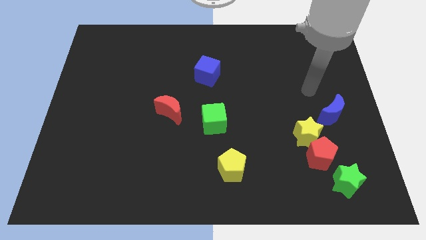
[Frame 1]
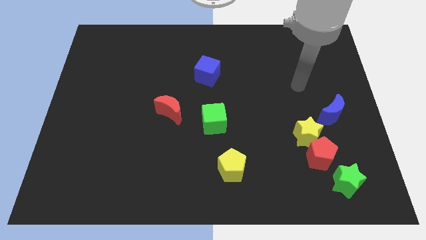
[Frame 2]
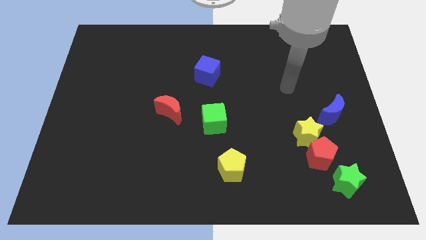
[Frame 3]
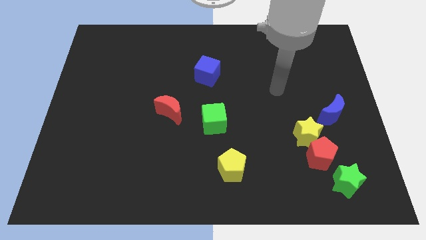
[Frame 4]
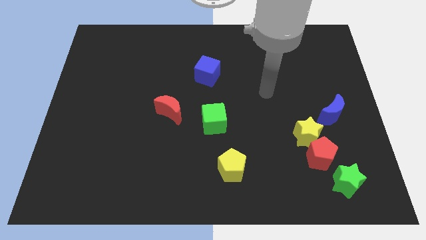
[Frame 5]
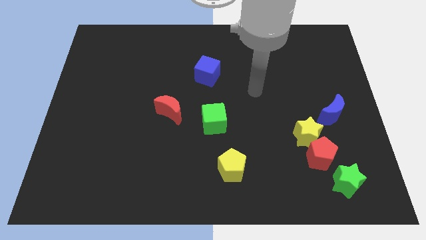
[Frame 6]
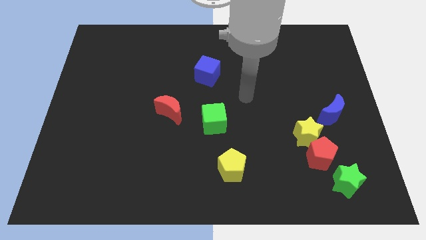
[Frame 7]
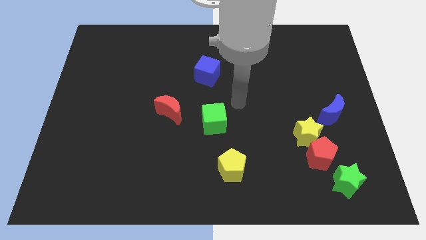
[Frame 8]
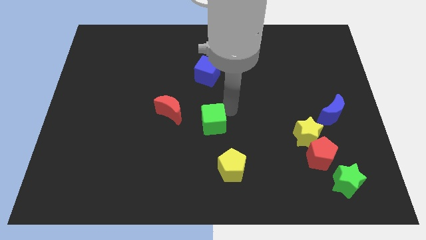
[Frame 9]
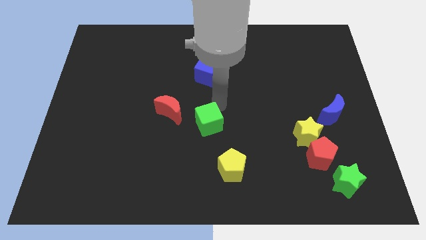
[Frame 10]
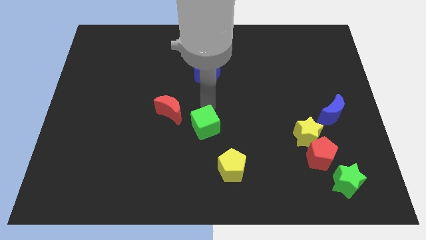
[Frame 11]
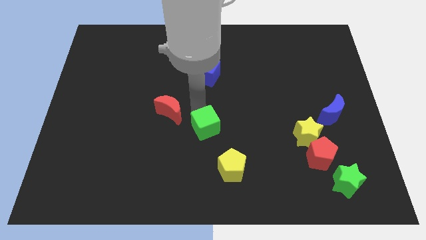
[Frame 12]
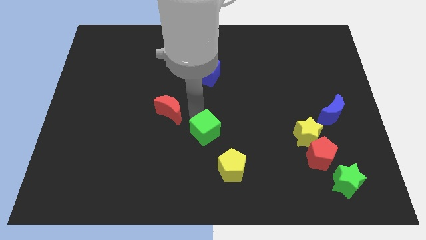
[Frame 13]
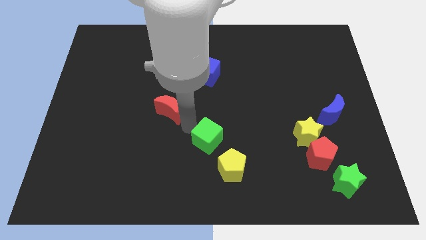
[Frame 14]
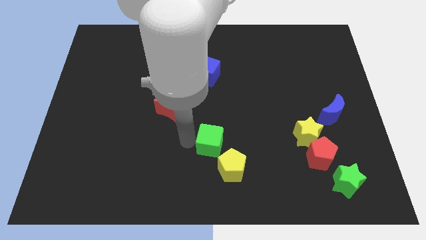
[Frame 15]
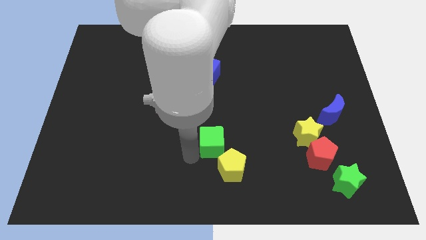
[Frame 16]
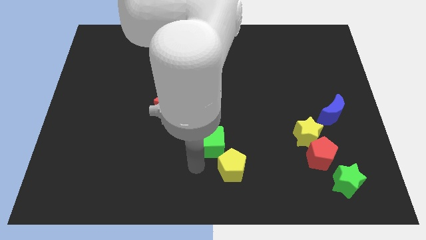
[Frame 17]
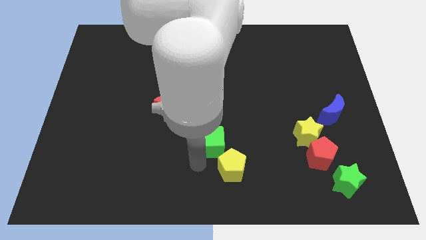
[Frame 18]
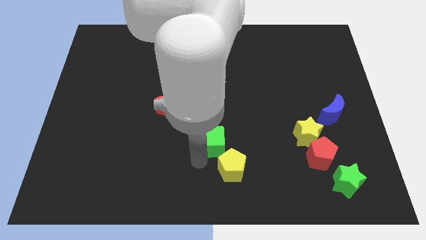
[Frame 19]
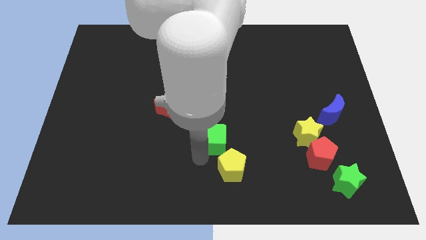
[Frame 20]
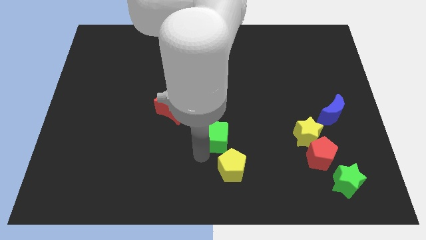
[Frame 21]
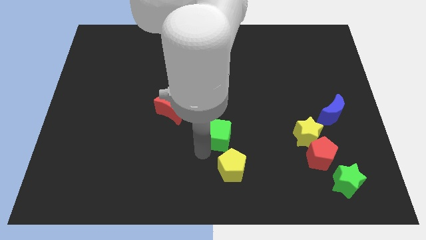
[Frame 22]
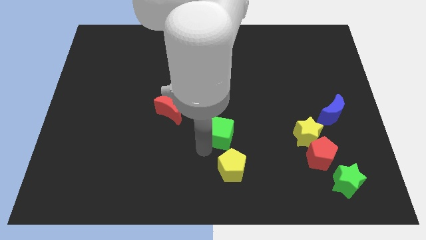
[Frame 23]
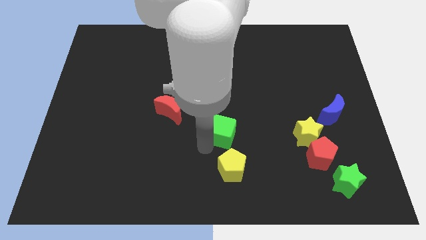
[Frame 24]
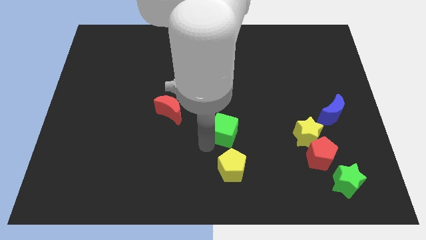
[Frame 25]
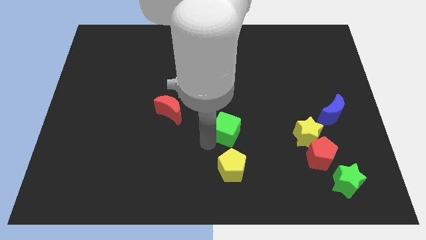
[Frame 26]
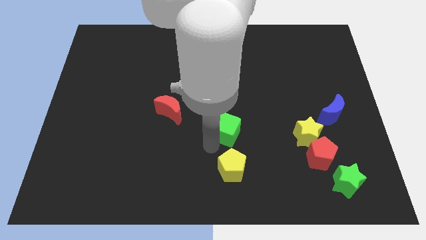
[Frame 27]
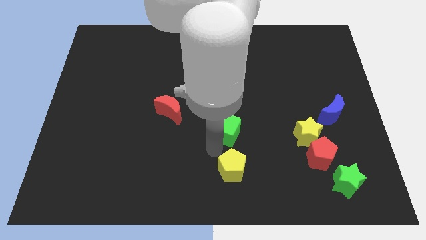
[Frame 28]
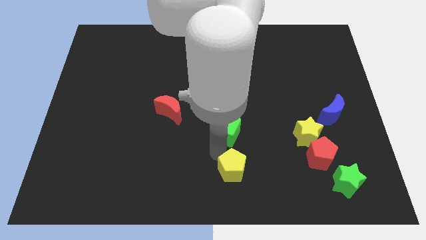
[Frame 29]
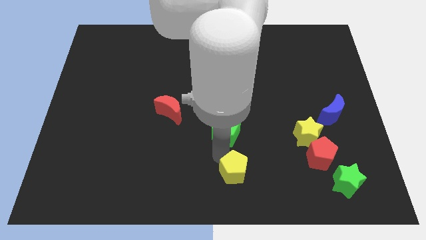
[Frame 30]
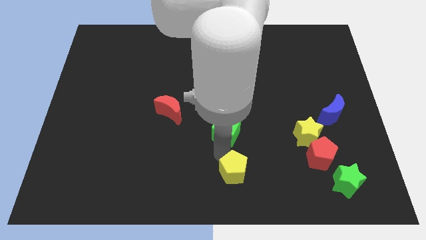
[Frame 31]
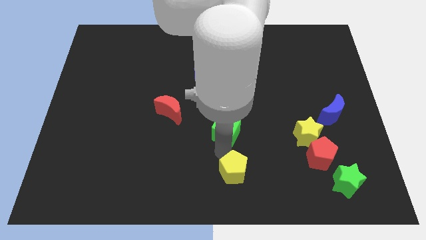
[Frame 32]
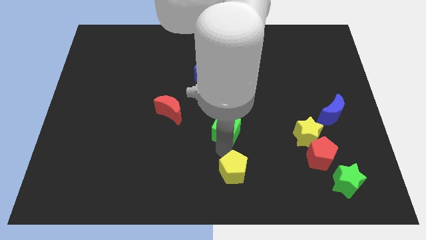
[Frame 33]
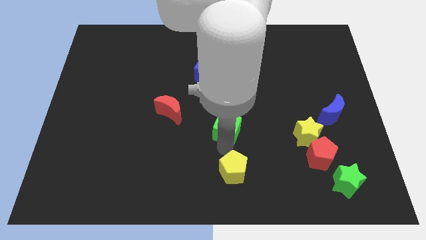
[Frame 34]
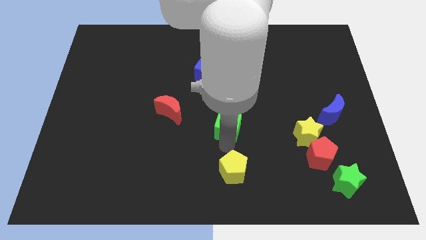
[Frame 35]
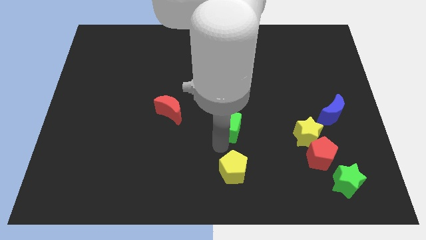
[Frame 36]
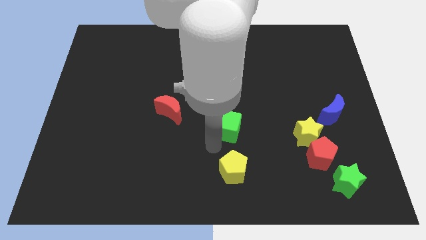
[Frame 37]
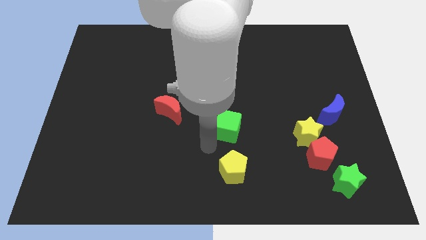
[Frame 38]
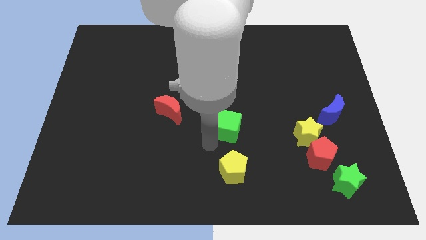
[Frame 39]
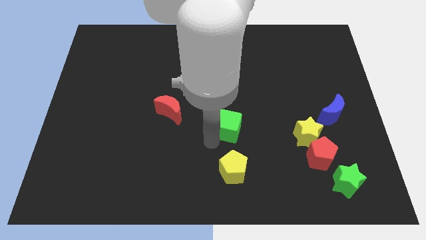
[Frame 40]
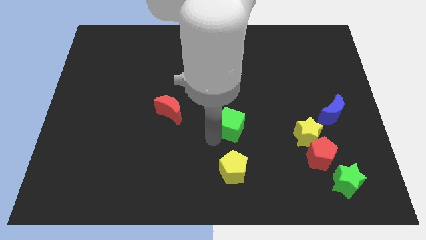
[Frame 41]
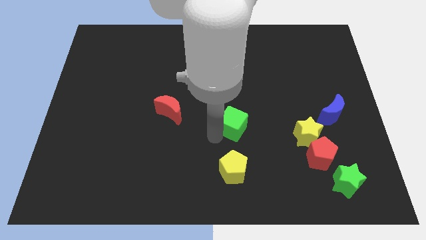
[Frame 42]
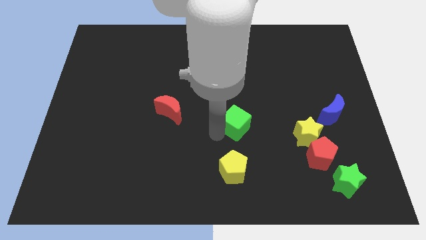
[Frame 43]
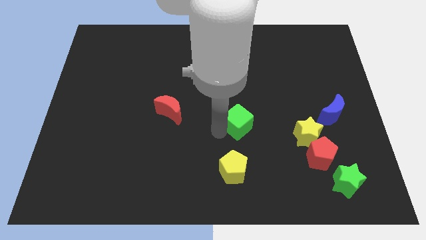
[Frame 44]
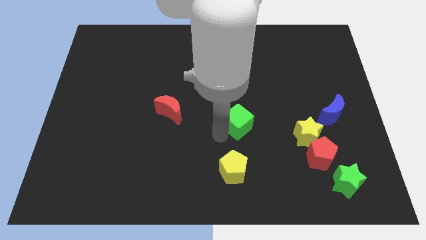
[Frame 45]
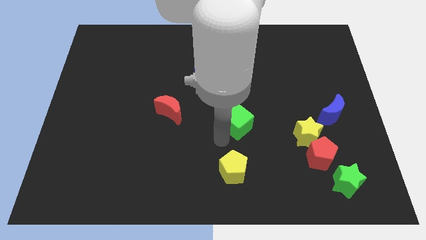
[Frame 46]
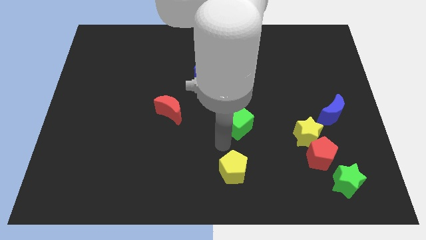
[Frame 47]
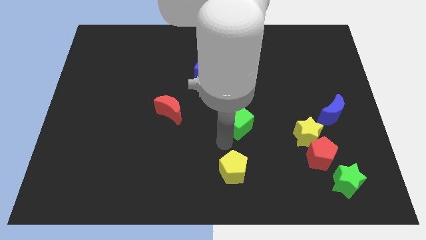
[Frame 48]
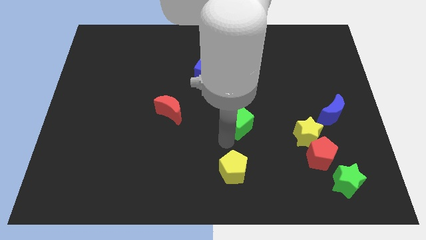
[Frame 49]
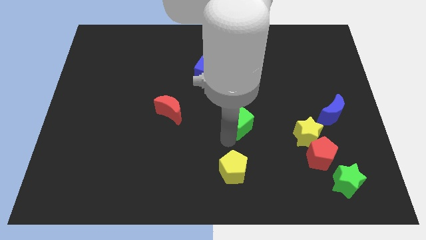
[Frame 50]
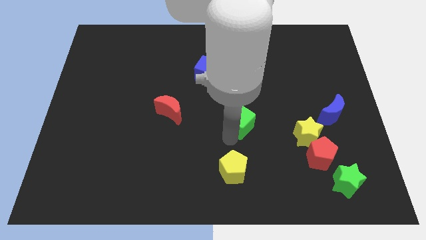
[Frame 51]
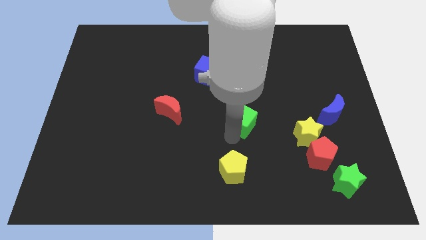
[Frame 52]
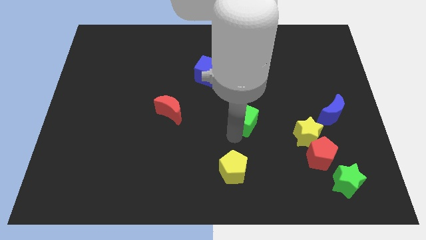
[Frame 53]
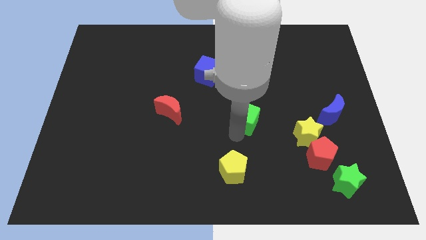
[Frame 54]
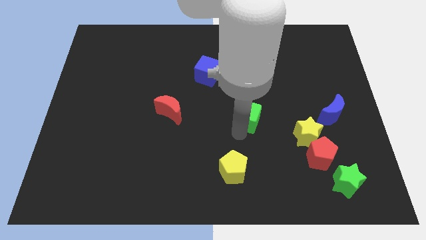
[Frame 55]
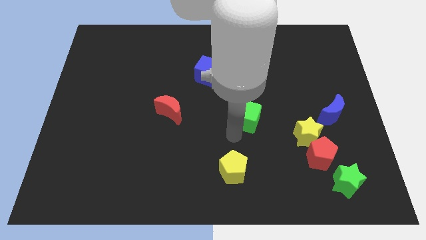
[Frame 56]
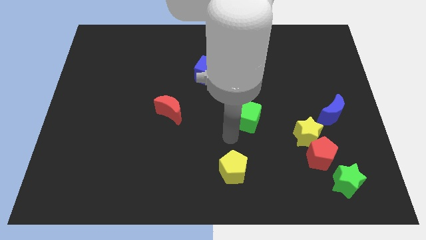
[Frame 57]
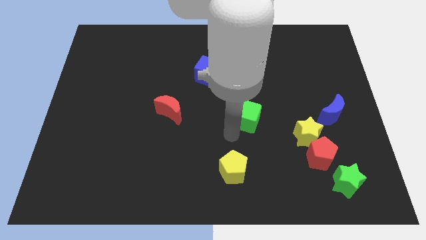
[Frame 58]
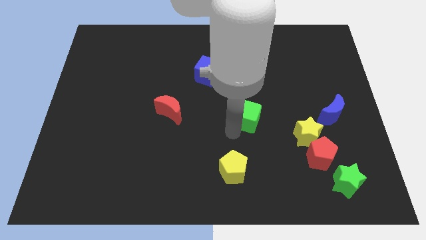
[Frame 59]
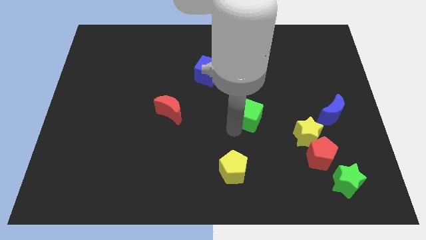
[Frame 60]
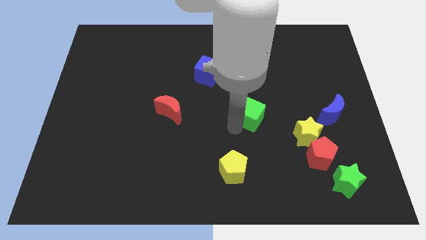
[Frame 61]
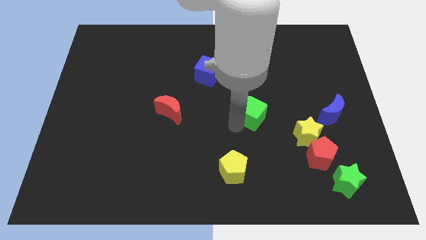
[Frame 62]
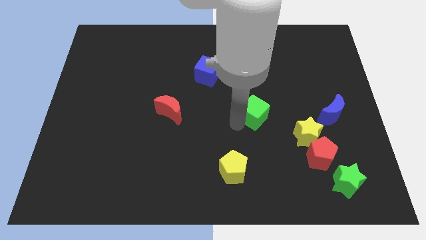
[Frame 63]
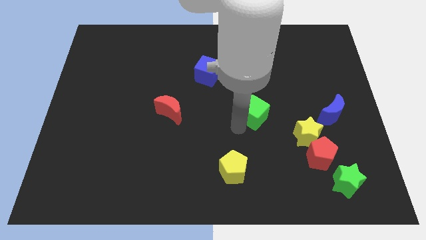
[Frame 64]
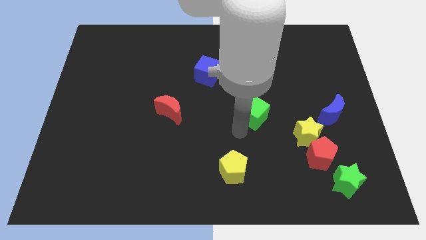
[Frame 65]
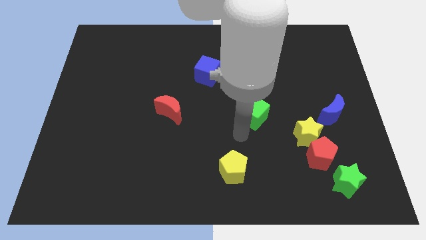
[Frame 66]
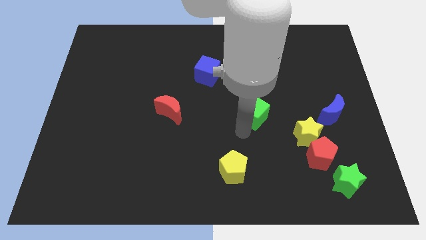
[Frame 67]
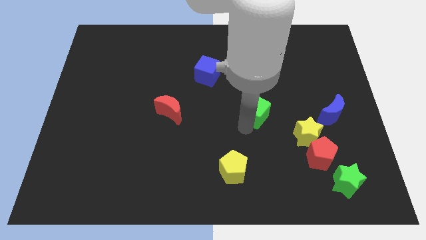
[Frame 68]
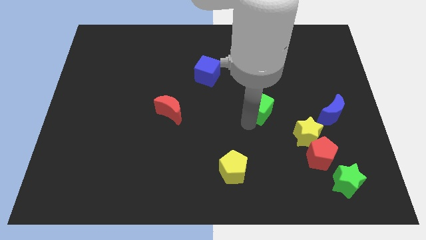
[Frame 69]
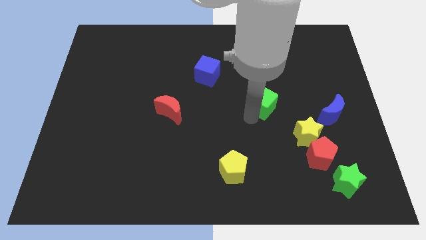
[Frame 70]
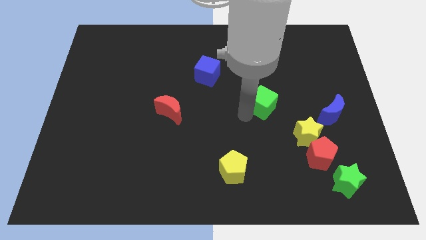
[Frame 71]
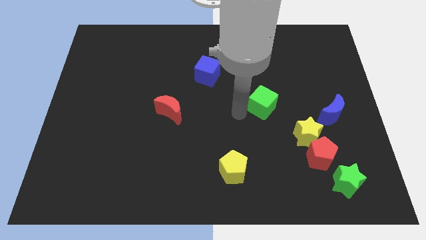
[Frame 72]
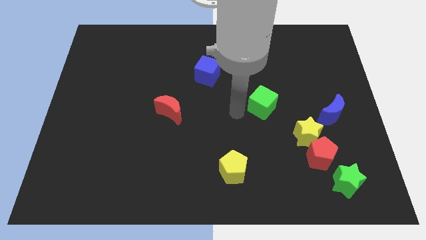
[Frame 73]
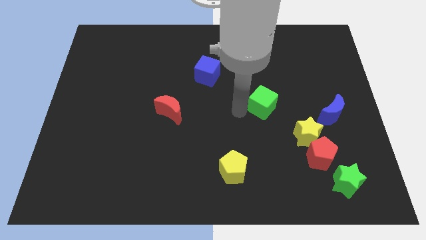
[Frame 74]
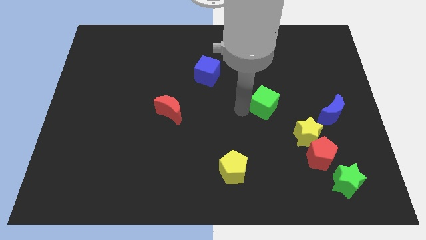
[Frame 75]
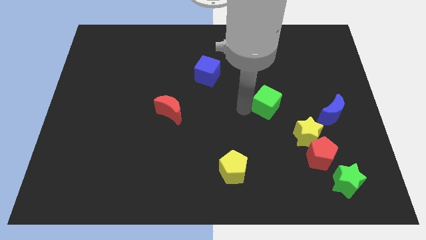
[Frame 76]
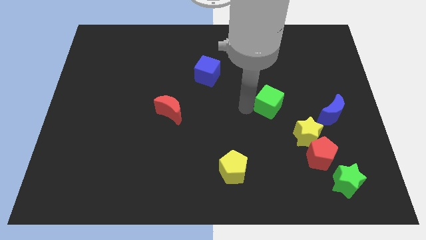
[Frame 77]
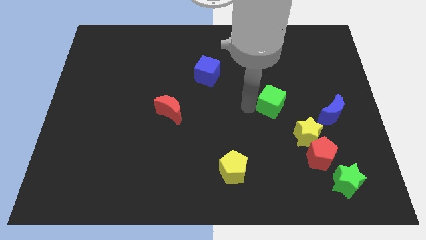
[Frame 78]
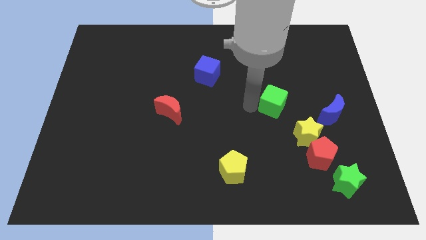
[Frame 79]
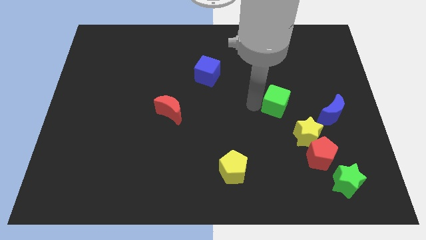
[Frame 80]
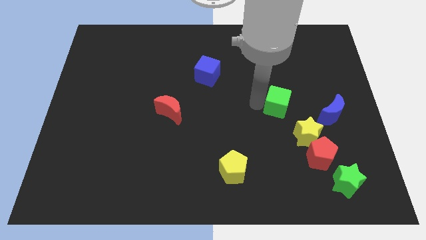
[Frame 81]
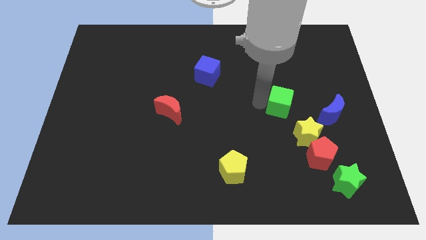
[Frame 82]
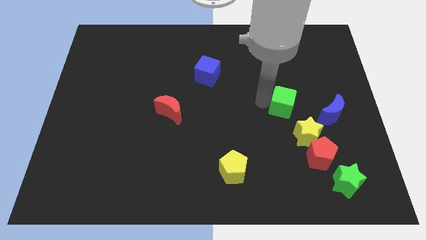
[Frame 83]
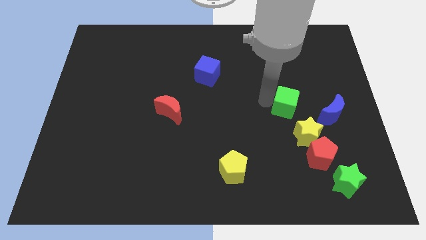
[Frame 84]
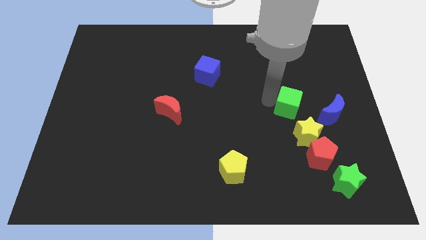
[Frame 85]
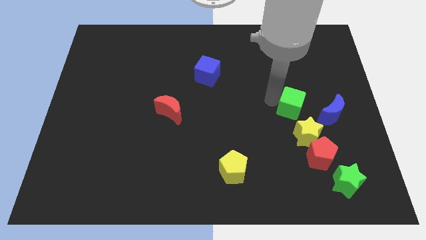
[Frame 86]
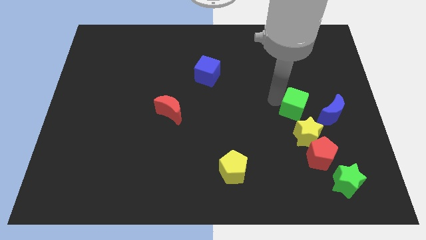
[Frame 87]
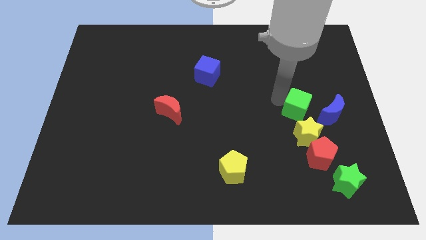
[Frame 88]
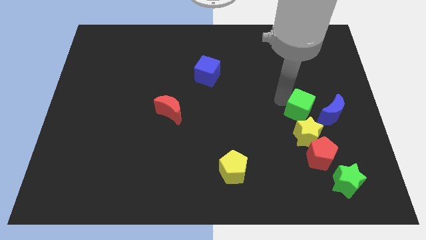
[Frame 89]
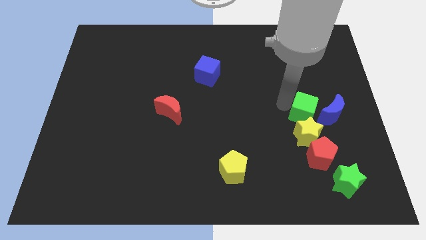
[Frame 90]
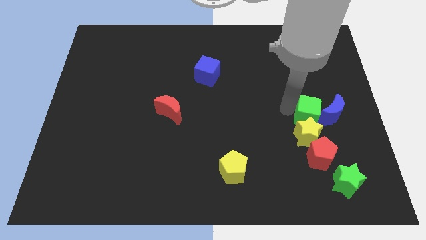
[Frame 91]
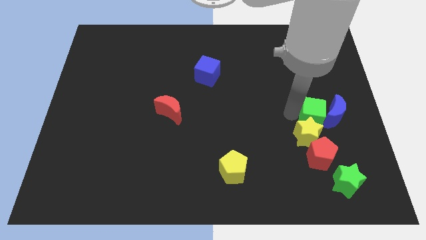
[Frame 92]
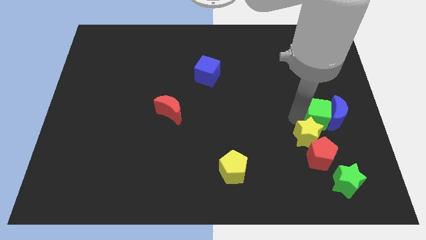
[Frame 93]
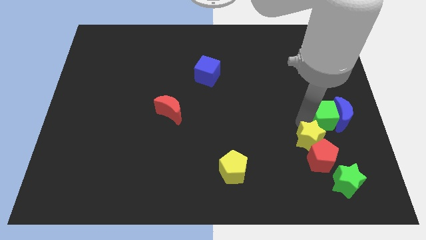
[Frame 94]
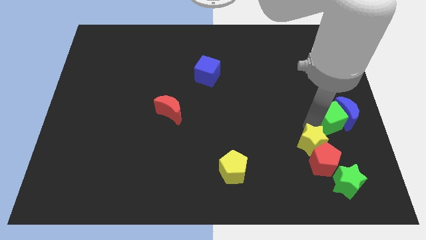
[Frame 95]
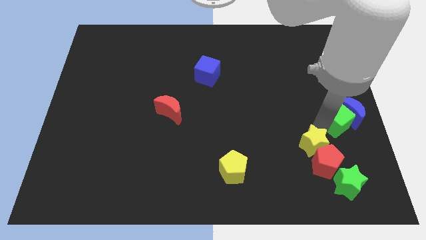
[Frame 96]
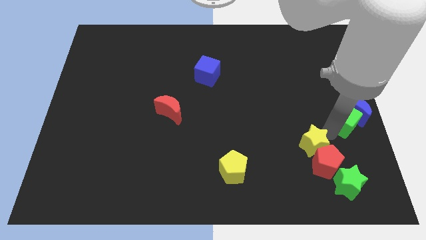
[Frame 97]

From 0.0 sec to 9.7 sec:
put the green cube to the top right side of the red pentagon
